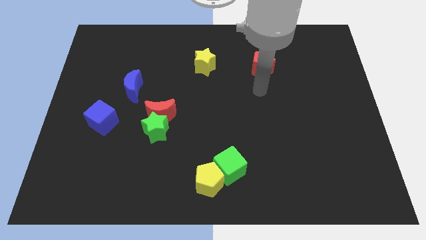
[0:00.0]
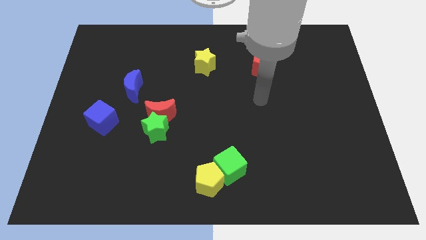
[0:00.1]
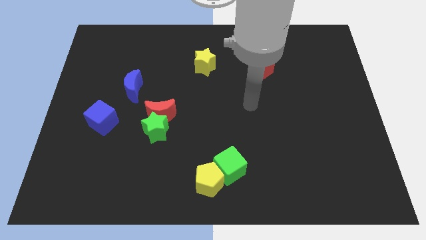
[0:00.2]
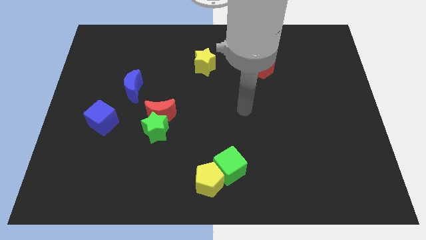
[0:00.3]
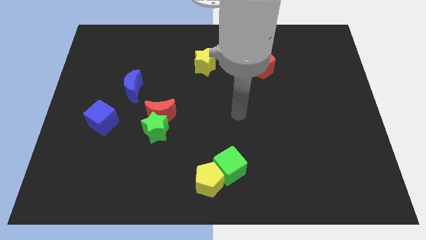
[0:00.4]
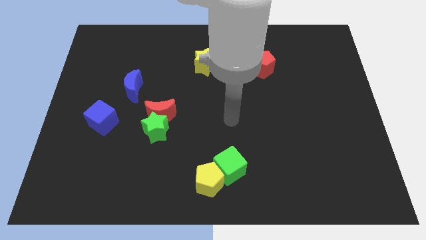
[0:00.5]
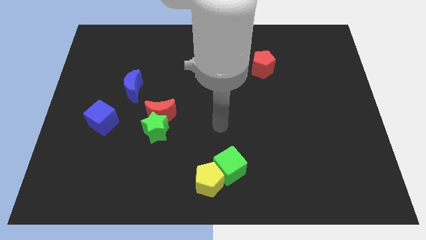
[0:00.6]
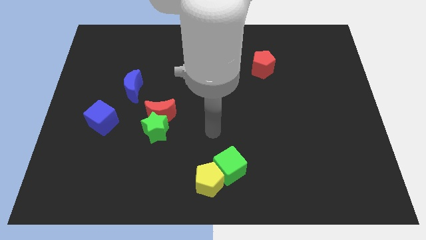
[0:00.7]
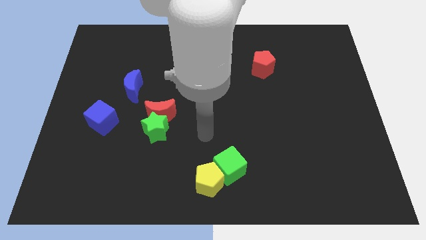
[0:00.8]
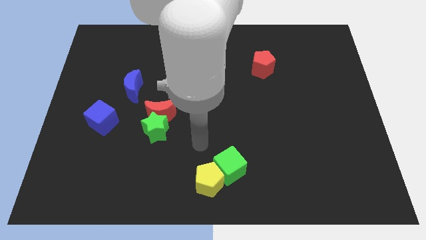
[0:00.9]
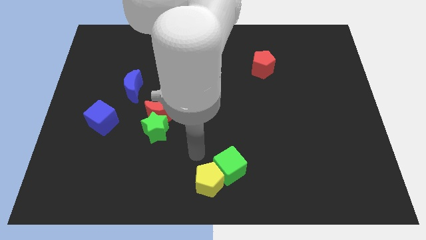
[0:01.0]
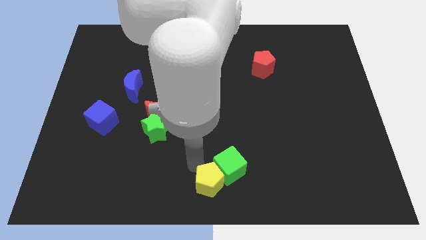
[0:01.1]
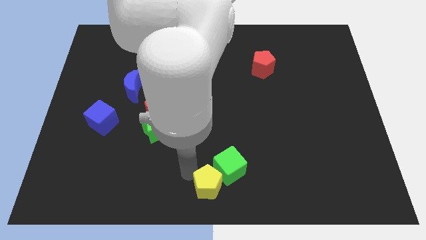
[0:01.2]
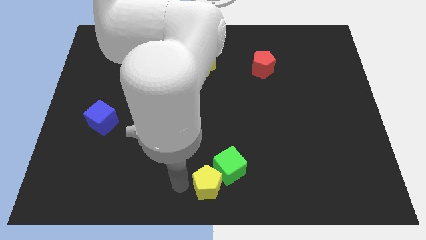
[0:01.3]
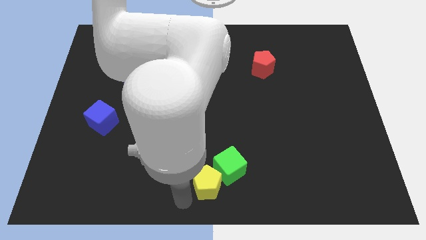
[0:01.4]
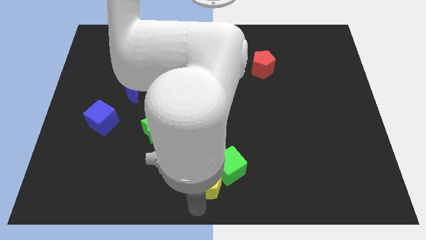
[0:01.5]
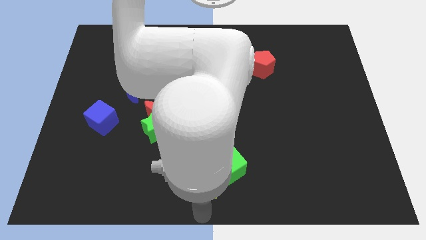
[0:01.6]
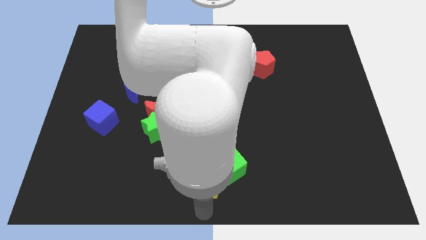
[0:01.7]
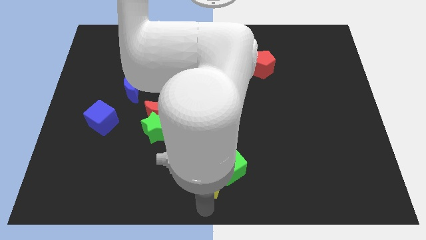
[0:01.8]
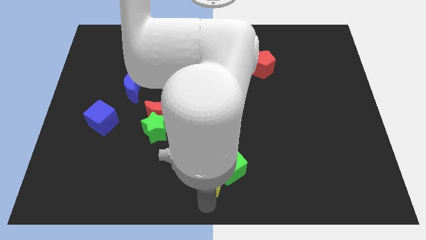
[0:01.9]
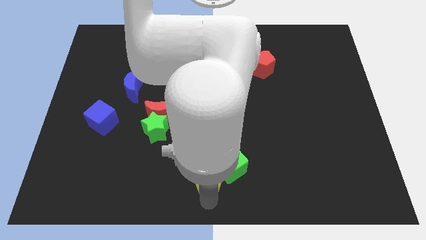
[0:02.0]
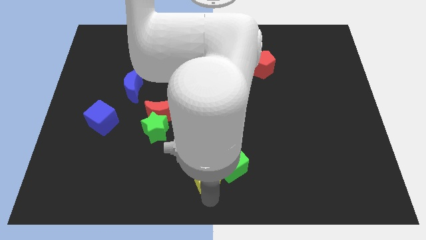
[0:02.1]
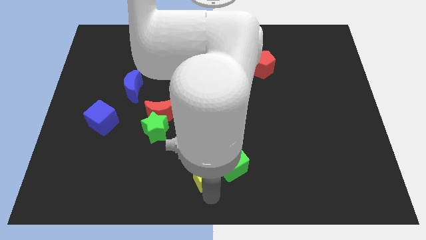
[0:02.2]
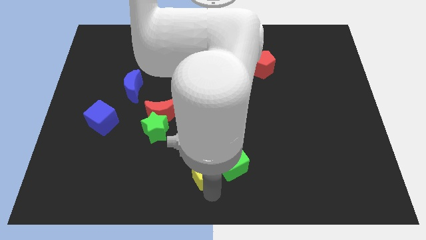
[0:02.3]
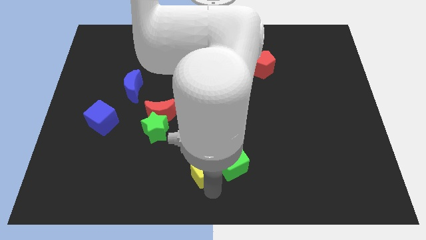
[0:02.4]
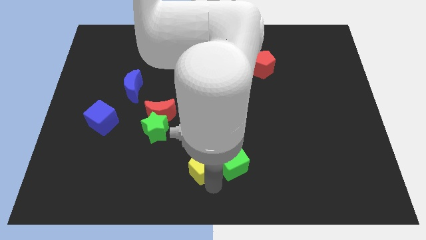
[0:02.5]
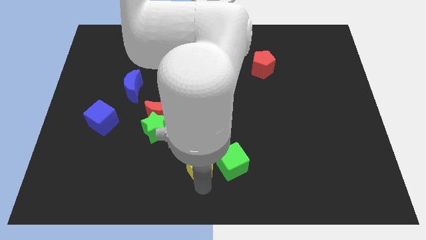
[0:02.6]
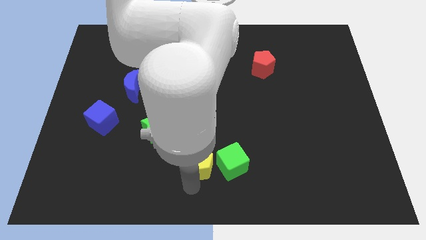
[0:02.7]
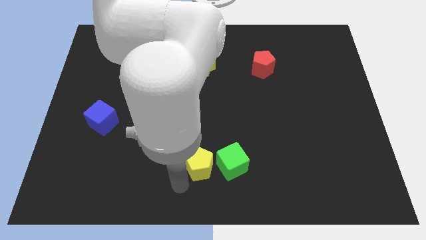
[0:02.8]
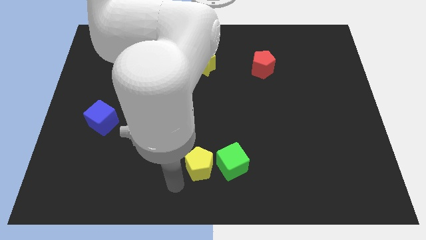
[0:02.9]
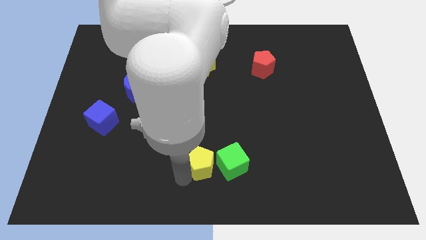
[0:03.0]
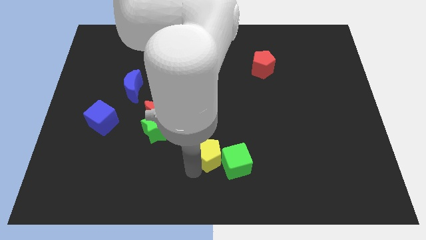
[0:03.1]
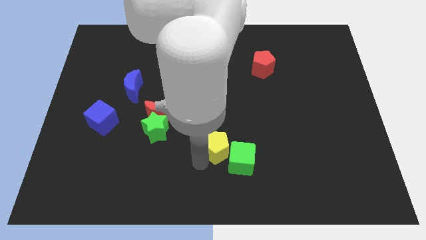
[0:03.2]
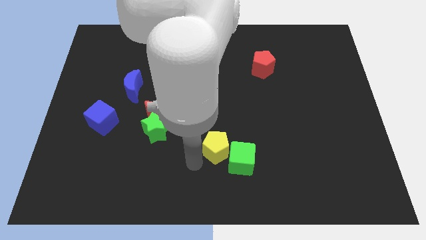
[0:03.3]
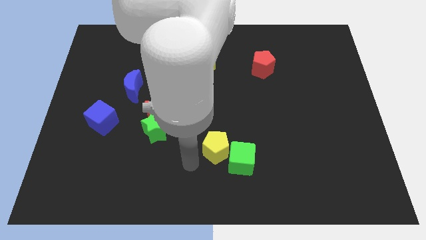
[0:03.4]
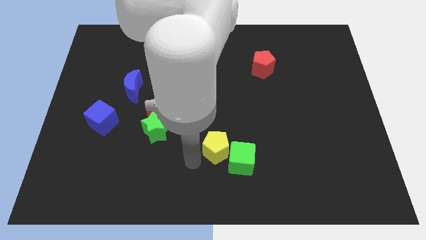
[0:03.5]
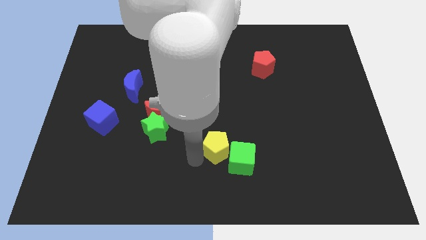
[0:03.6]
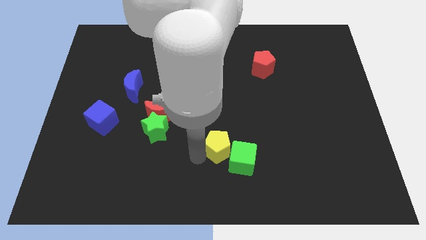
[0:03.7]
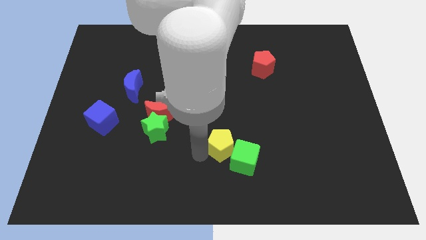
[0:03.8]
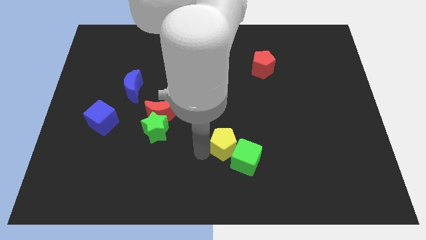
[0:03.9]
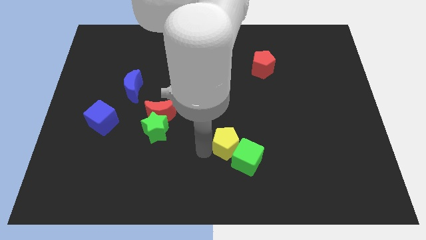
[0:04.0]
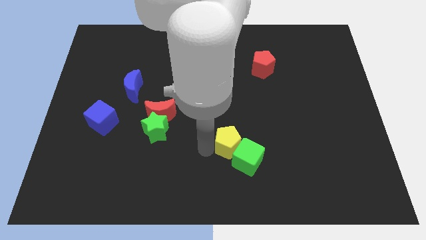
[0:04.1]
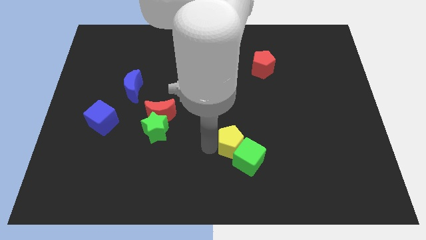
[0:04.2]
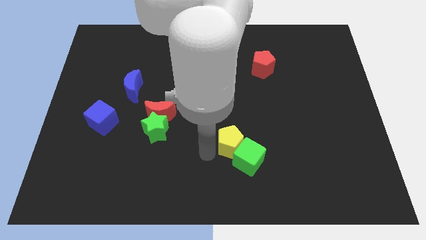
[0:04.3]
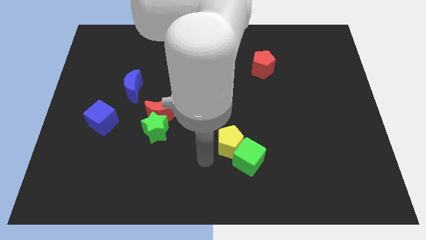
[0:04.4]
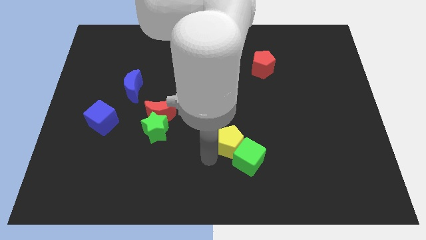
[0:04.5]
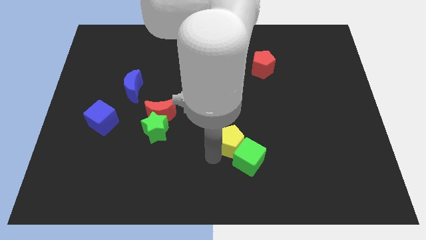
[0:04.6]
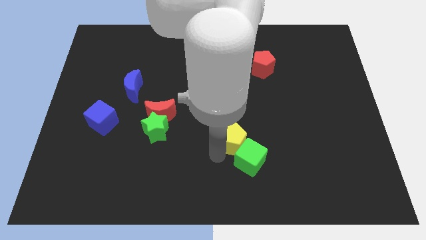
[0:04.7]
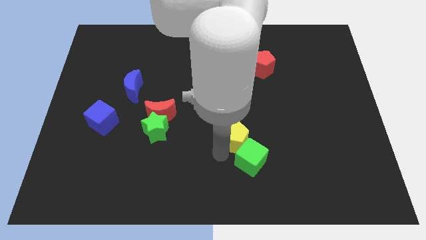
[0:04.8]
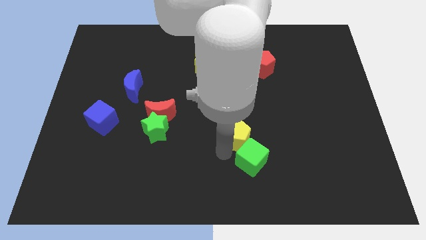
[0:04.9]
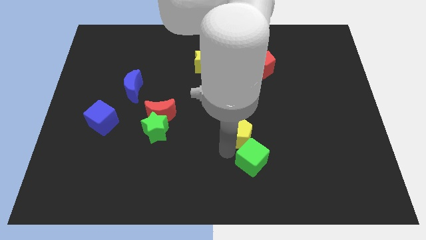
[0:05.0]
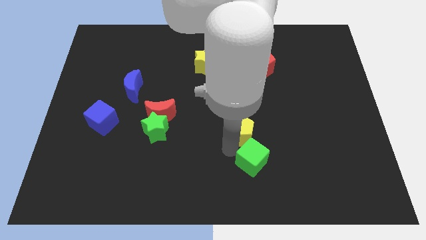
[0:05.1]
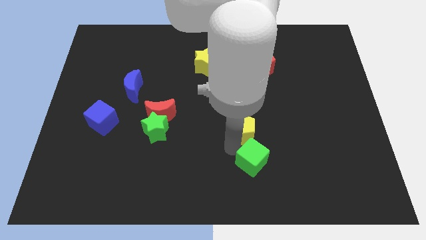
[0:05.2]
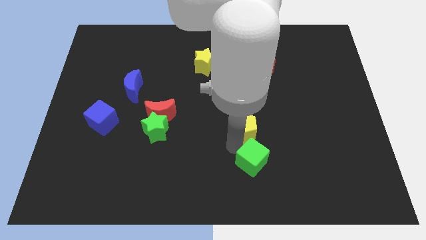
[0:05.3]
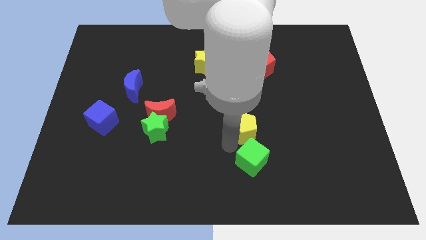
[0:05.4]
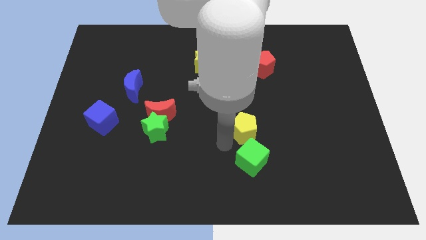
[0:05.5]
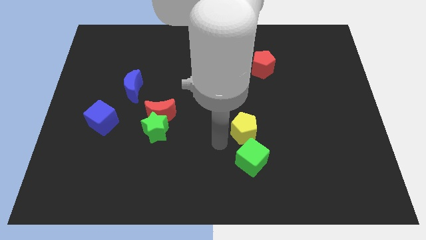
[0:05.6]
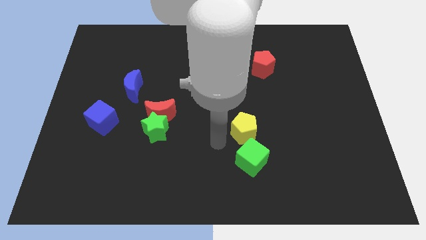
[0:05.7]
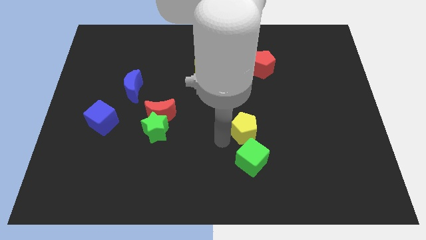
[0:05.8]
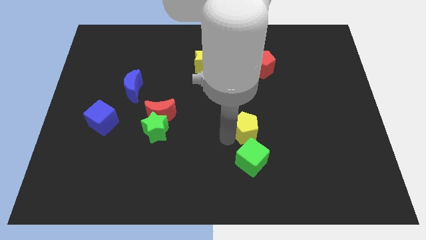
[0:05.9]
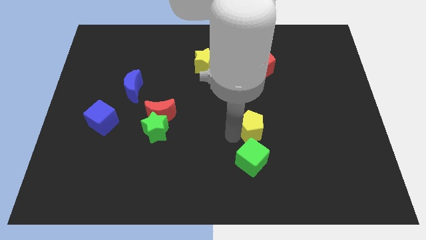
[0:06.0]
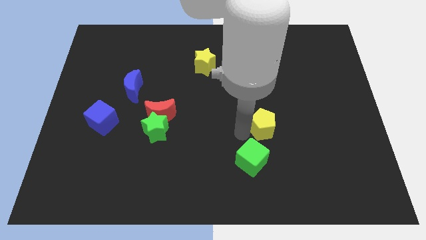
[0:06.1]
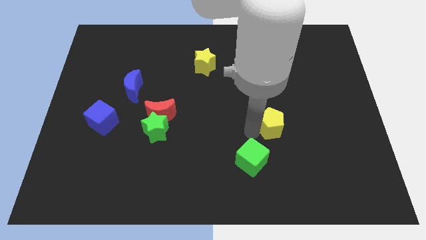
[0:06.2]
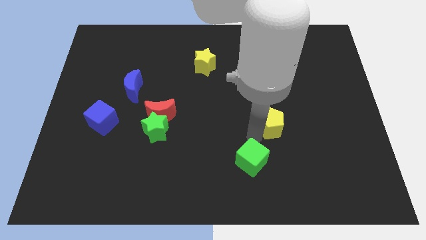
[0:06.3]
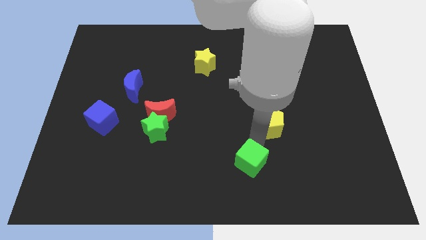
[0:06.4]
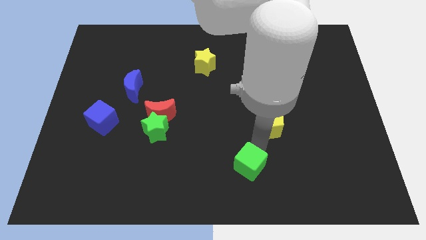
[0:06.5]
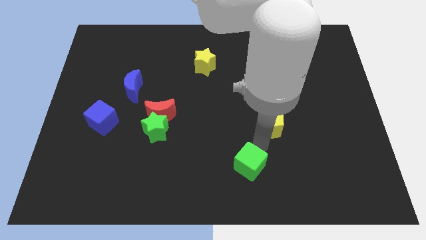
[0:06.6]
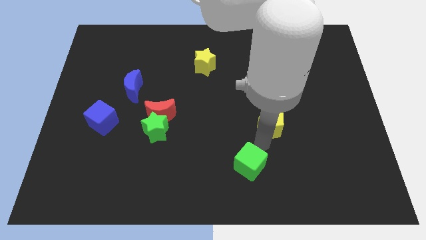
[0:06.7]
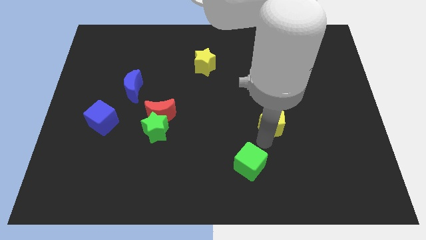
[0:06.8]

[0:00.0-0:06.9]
move the yellow pentagon upwards and right diagonally

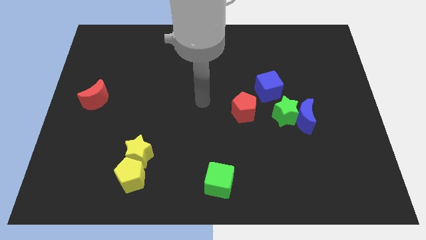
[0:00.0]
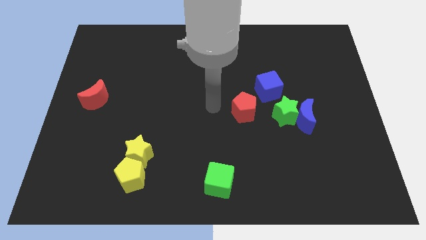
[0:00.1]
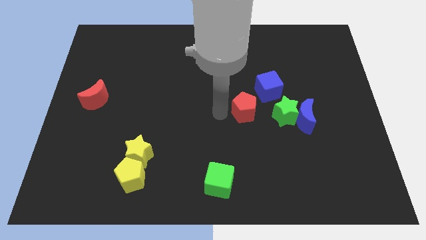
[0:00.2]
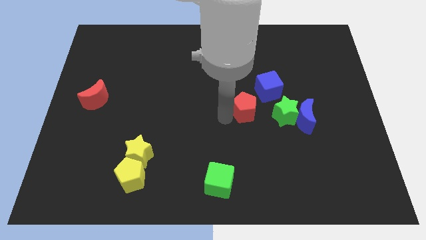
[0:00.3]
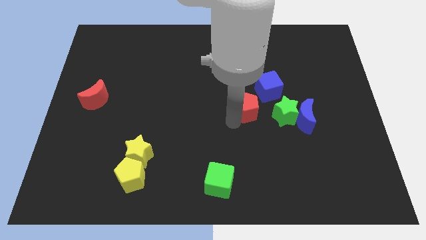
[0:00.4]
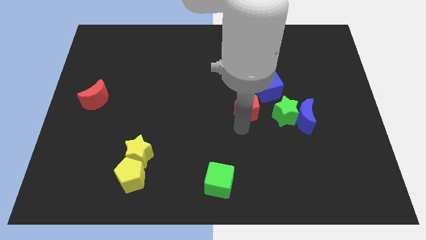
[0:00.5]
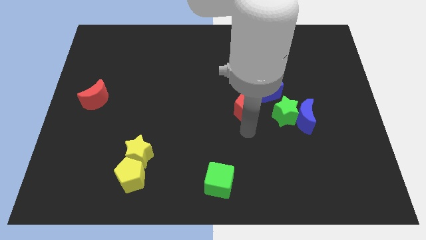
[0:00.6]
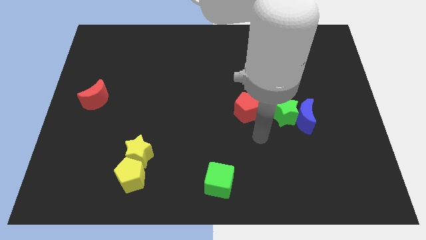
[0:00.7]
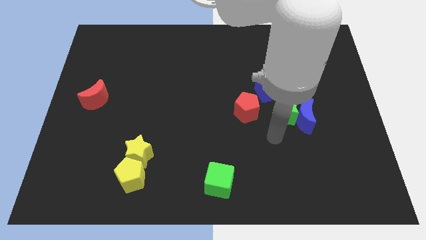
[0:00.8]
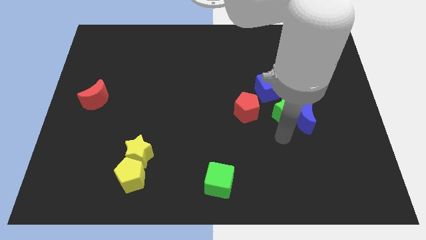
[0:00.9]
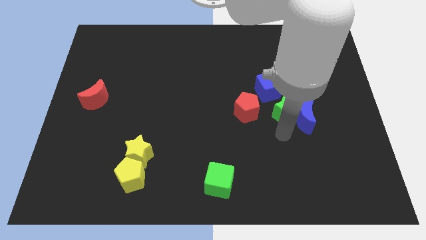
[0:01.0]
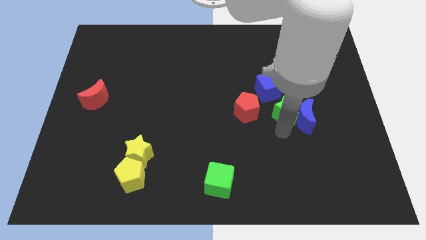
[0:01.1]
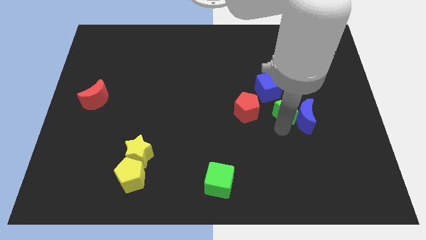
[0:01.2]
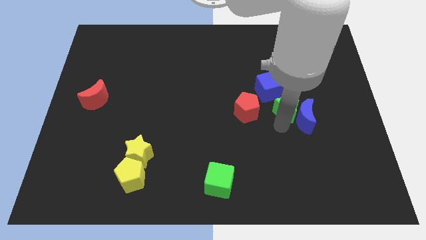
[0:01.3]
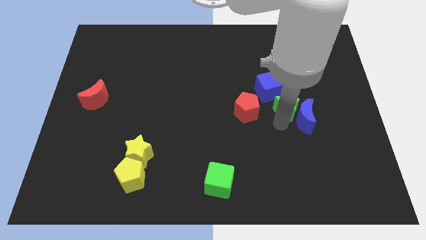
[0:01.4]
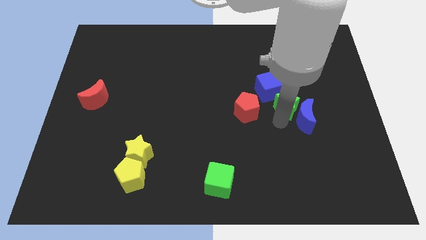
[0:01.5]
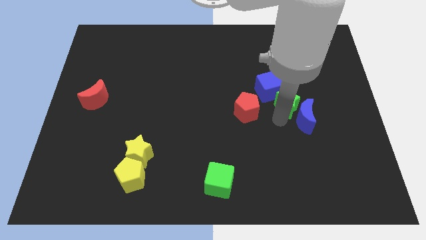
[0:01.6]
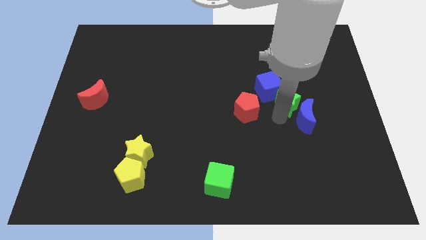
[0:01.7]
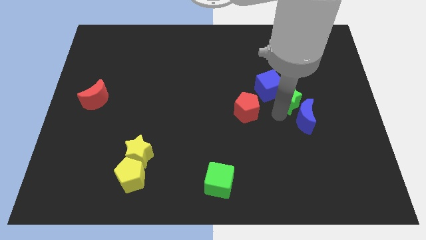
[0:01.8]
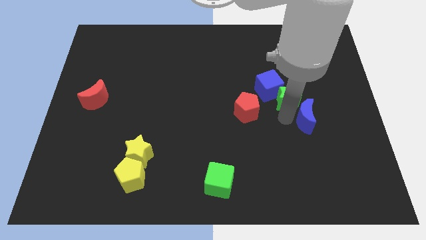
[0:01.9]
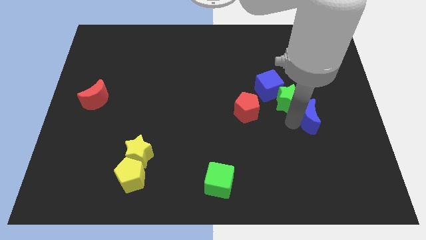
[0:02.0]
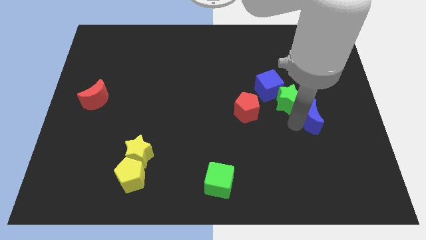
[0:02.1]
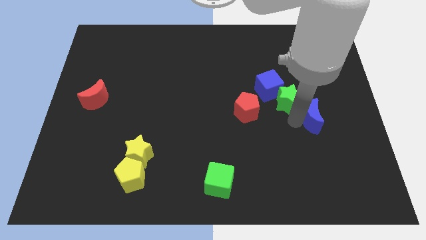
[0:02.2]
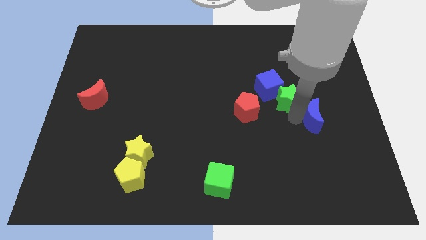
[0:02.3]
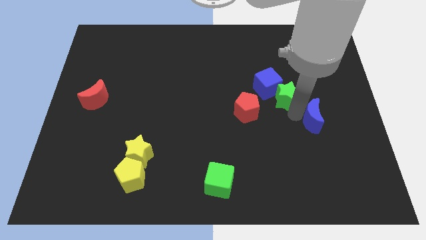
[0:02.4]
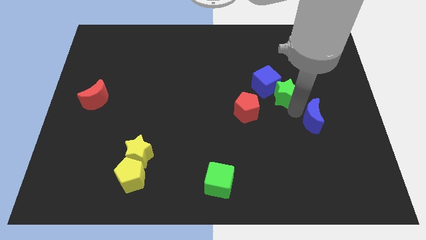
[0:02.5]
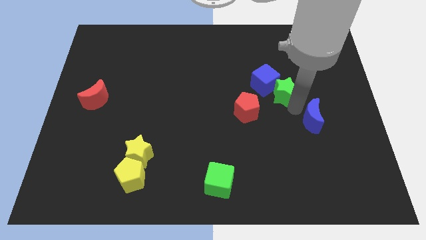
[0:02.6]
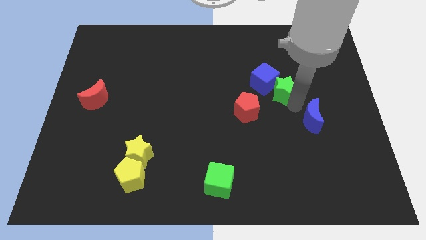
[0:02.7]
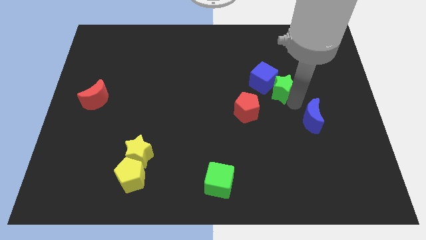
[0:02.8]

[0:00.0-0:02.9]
slightly push the green star upwards
